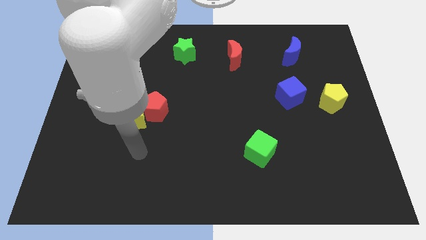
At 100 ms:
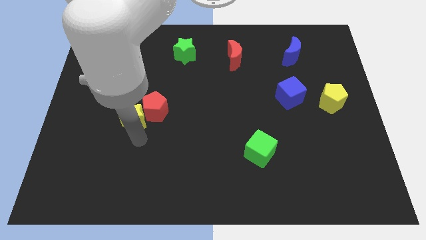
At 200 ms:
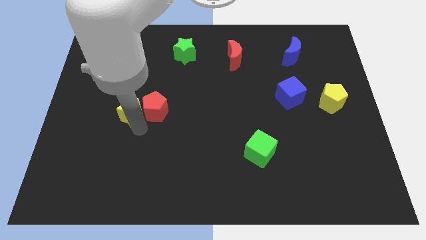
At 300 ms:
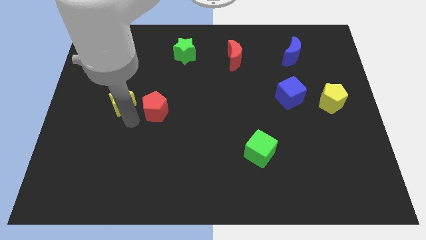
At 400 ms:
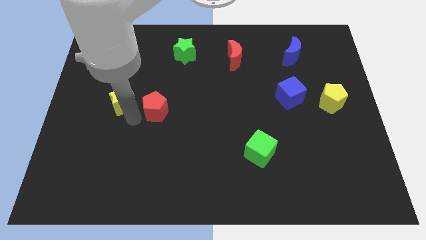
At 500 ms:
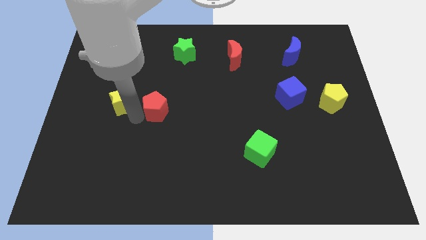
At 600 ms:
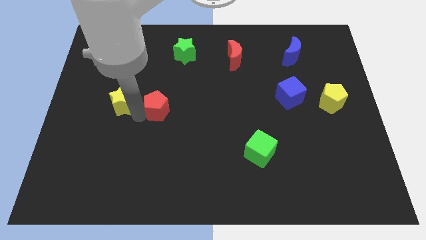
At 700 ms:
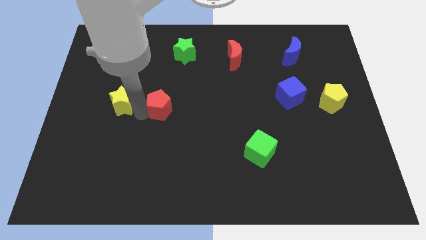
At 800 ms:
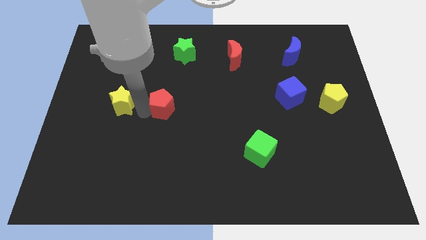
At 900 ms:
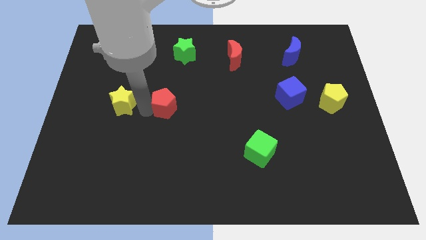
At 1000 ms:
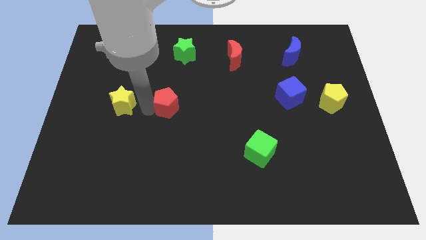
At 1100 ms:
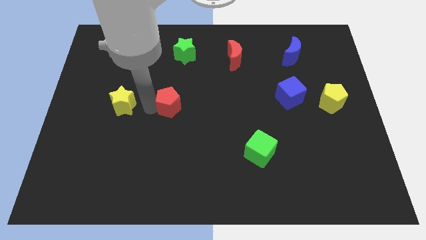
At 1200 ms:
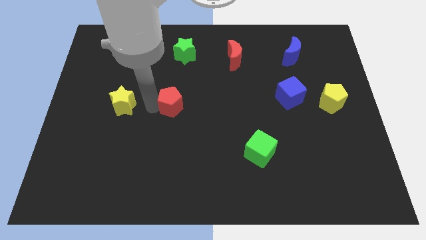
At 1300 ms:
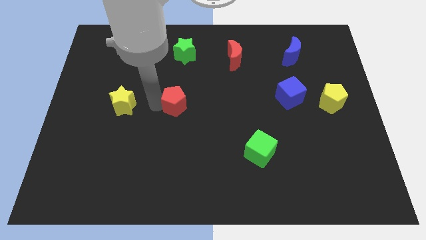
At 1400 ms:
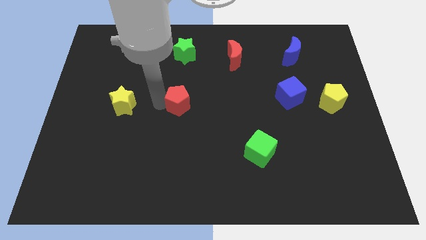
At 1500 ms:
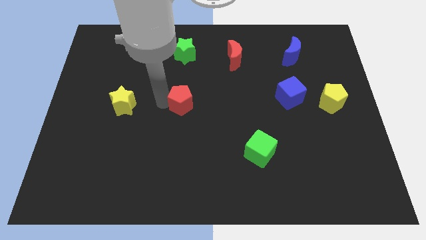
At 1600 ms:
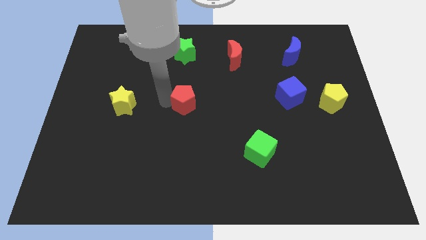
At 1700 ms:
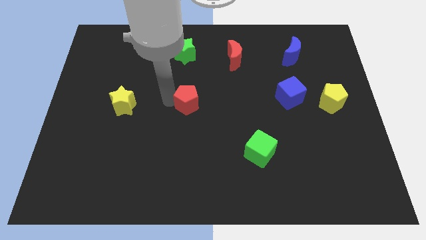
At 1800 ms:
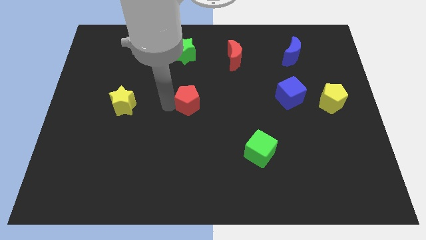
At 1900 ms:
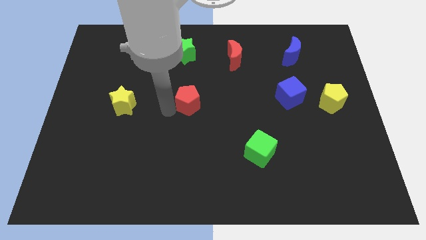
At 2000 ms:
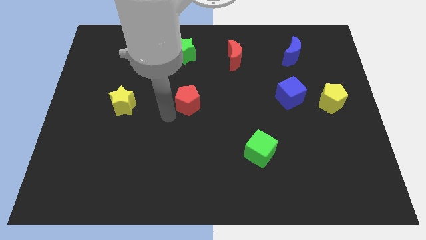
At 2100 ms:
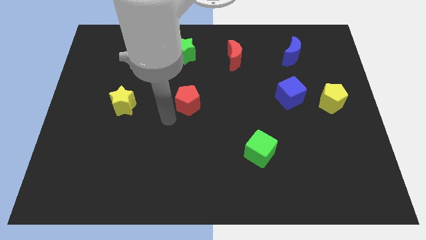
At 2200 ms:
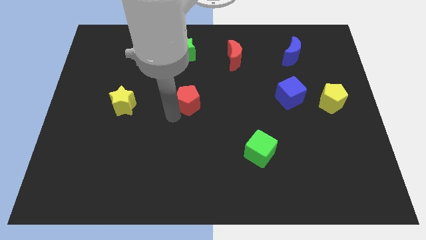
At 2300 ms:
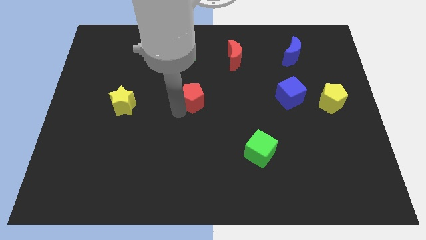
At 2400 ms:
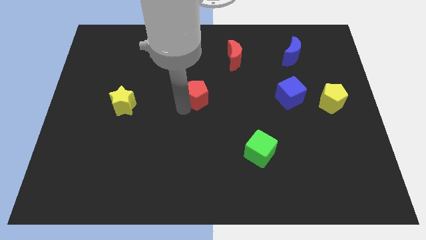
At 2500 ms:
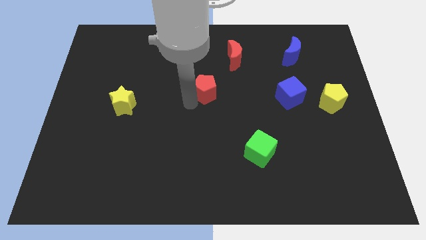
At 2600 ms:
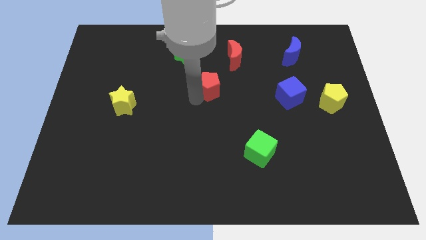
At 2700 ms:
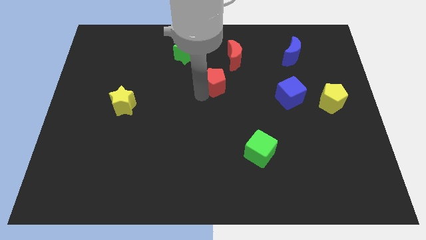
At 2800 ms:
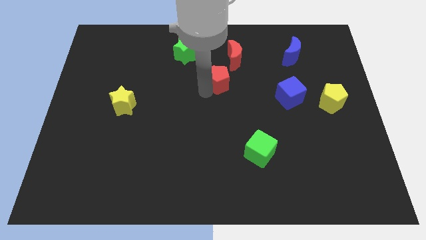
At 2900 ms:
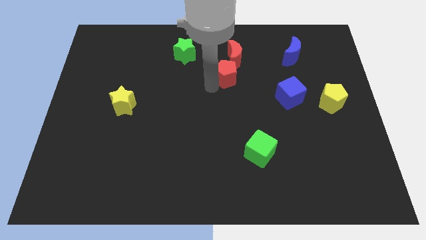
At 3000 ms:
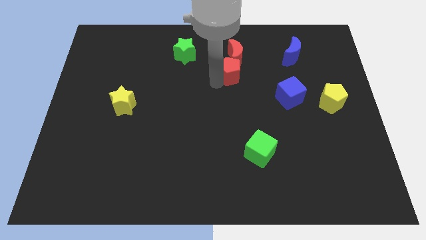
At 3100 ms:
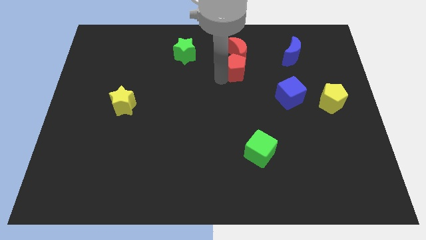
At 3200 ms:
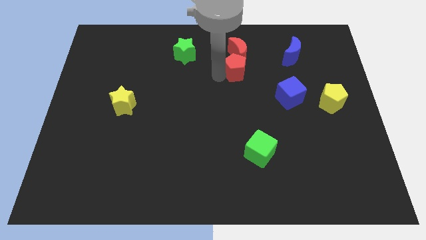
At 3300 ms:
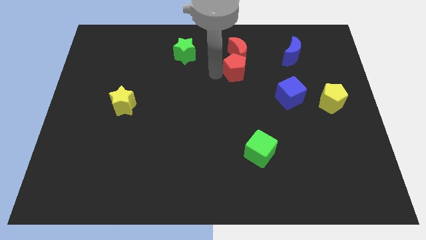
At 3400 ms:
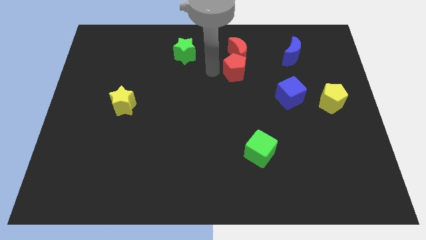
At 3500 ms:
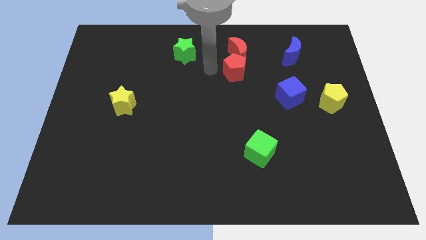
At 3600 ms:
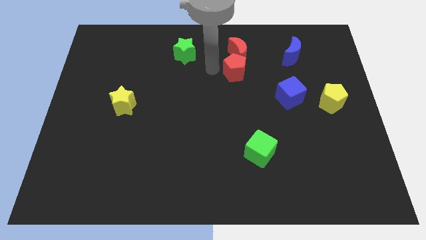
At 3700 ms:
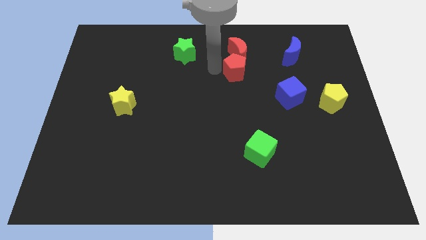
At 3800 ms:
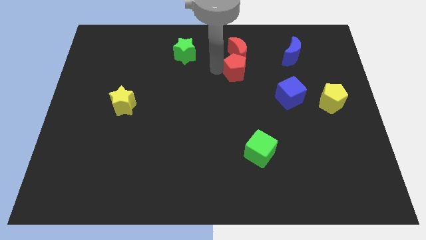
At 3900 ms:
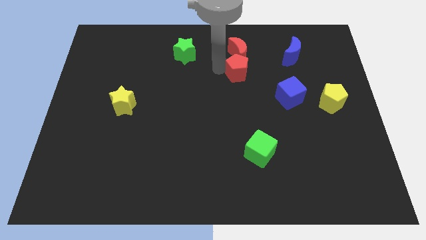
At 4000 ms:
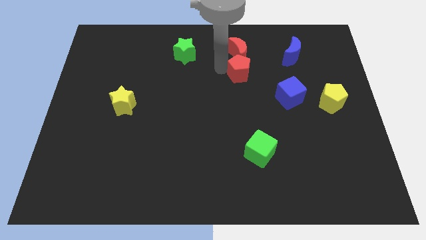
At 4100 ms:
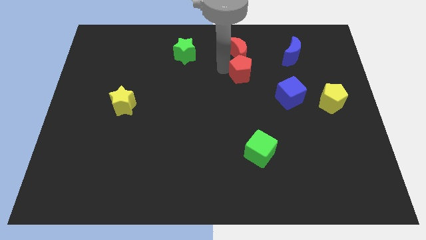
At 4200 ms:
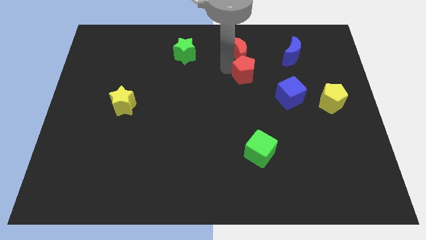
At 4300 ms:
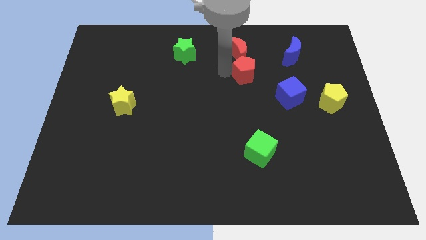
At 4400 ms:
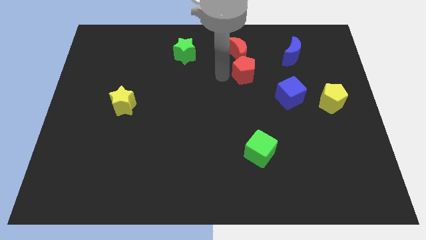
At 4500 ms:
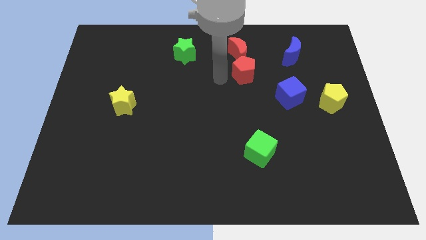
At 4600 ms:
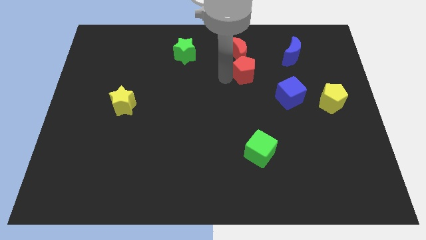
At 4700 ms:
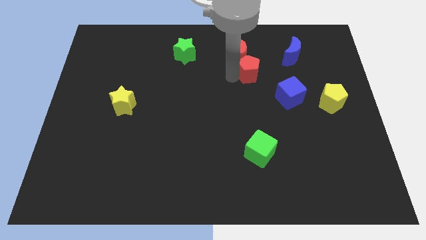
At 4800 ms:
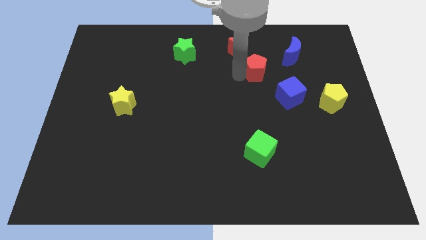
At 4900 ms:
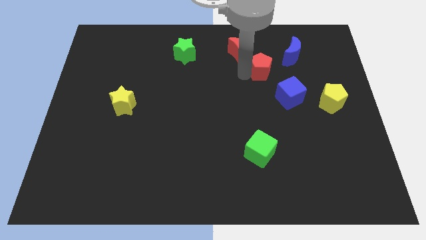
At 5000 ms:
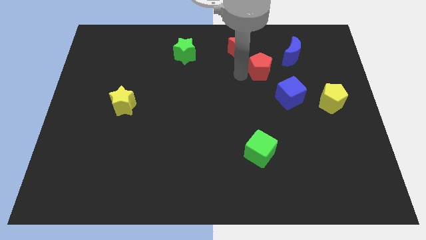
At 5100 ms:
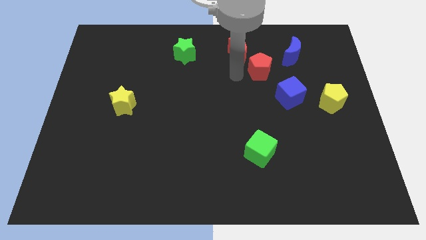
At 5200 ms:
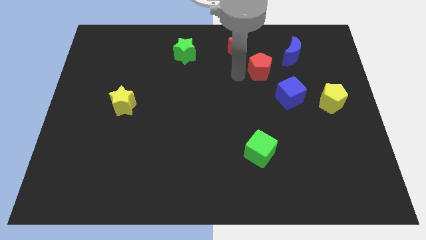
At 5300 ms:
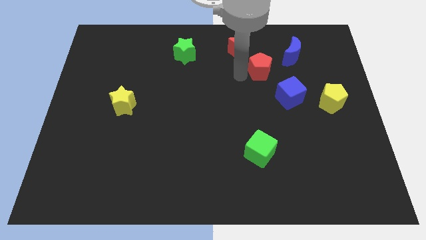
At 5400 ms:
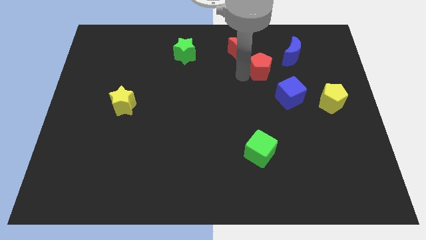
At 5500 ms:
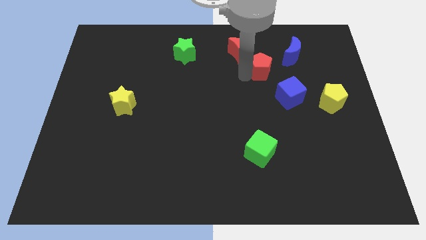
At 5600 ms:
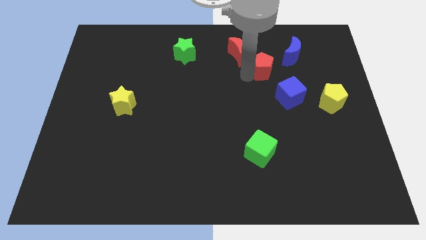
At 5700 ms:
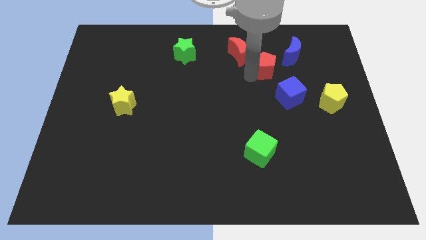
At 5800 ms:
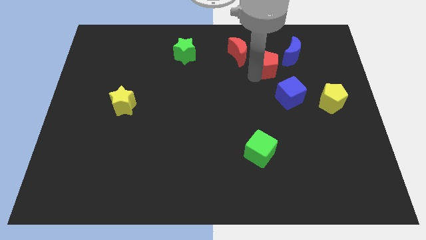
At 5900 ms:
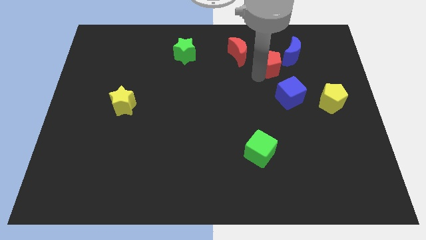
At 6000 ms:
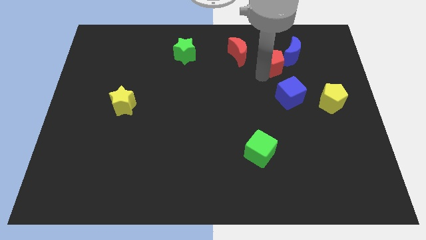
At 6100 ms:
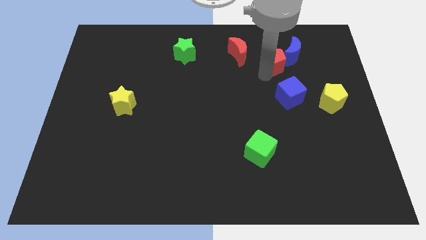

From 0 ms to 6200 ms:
slide the red pentagon next to the blue moon

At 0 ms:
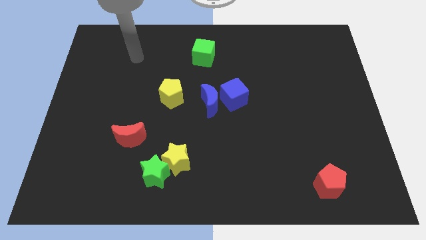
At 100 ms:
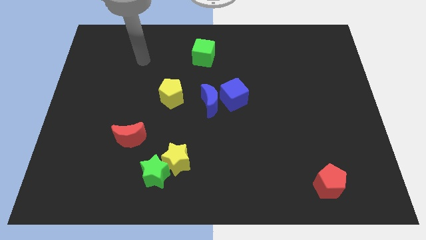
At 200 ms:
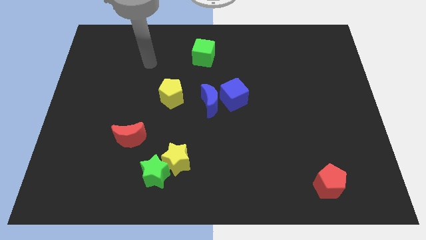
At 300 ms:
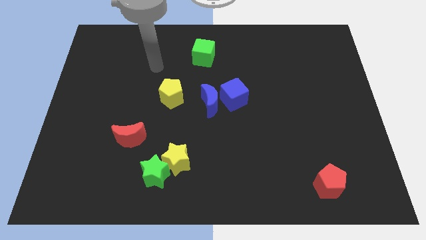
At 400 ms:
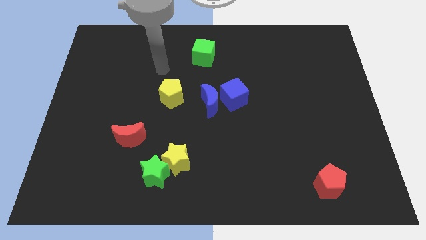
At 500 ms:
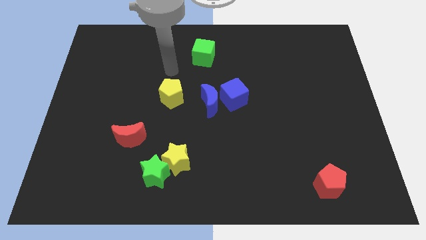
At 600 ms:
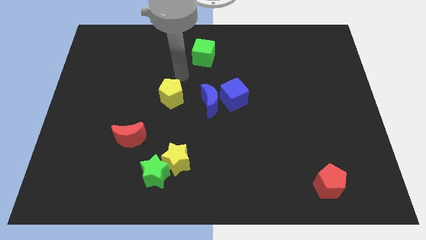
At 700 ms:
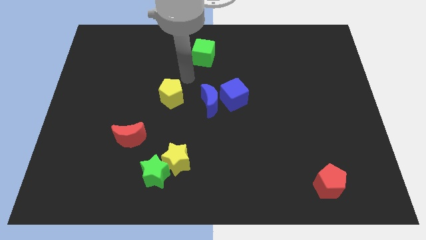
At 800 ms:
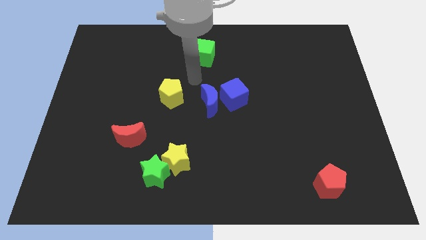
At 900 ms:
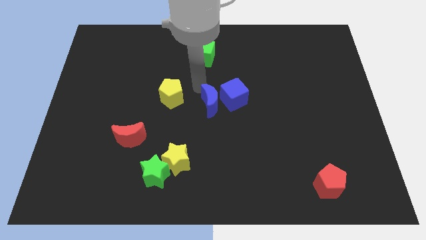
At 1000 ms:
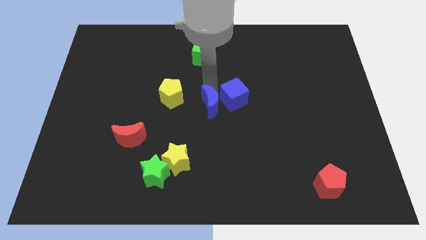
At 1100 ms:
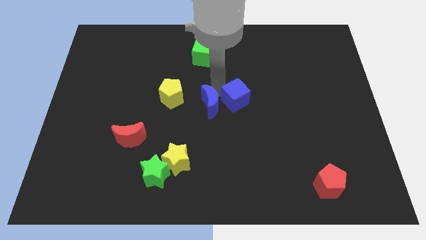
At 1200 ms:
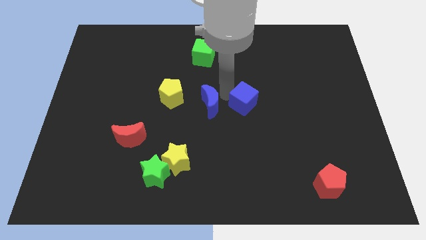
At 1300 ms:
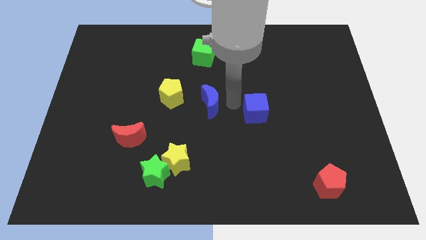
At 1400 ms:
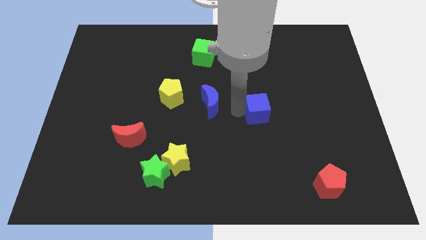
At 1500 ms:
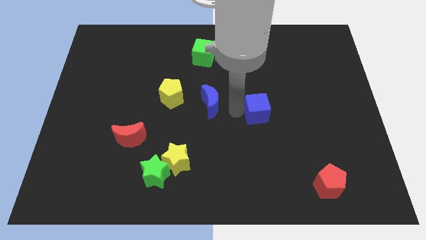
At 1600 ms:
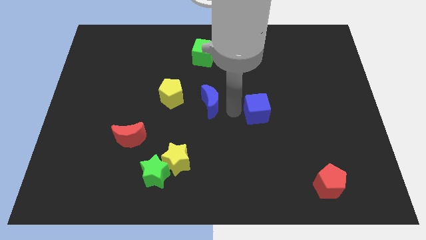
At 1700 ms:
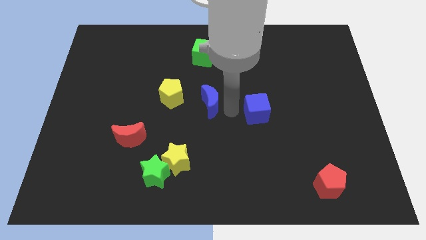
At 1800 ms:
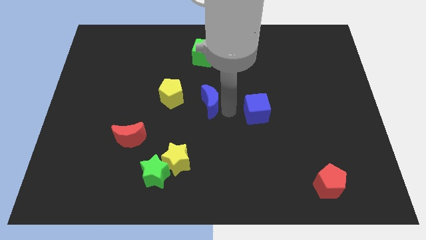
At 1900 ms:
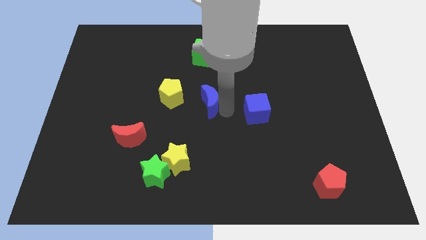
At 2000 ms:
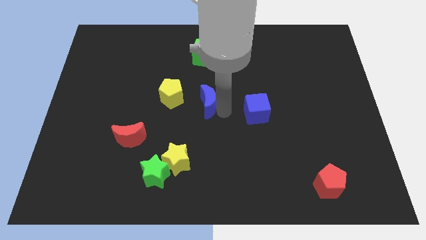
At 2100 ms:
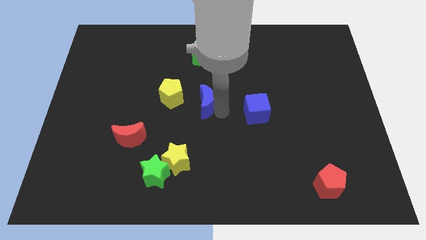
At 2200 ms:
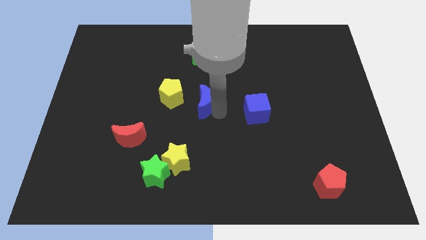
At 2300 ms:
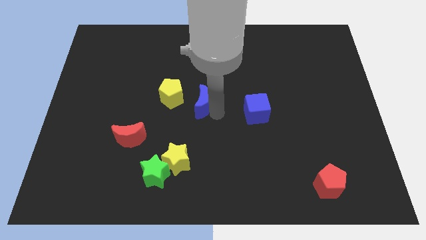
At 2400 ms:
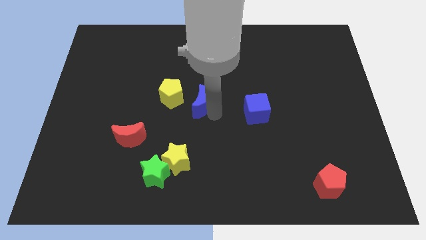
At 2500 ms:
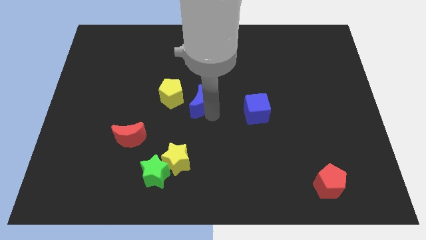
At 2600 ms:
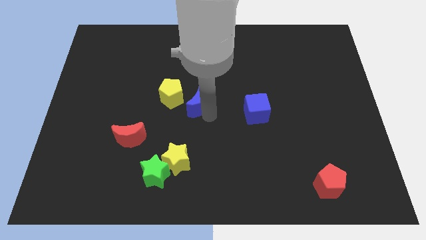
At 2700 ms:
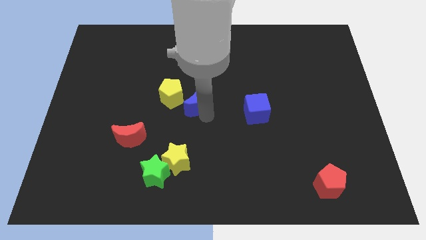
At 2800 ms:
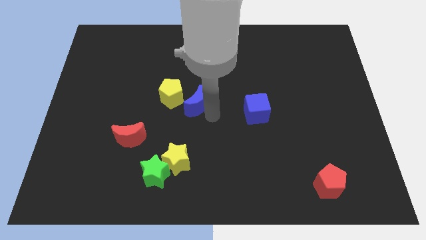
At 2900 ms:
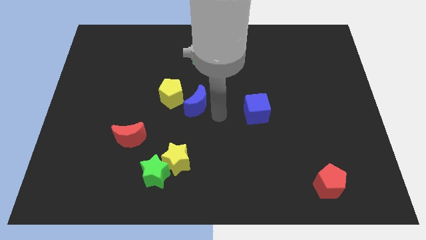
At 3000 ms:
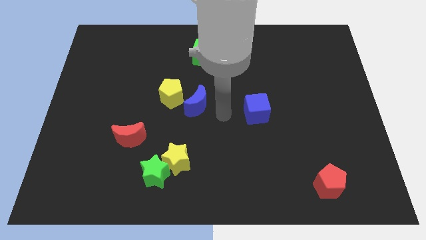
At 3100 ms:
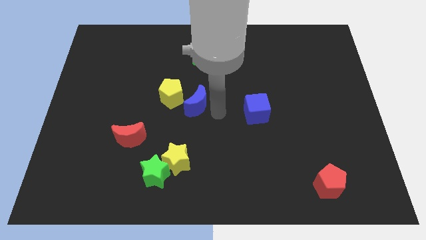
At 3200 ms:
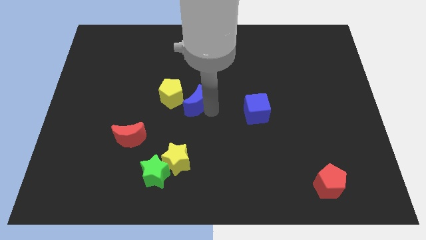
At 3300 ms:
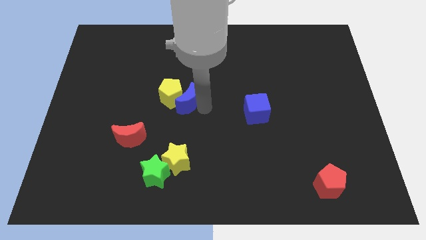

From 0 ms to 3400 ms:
slide the blue moon to the yellow pentagon
